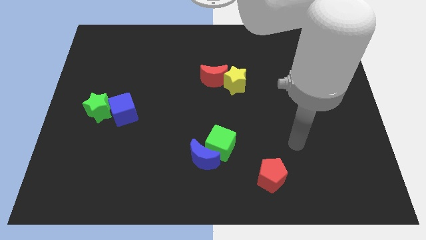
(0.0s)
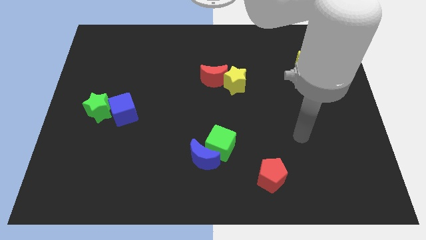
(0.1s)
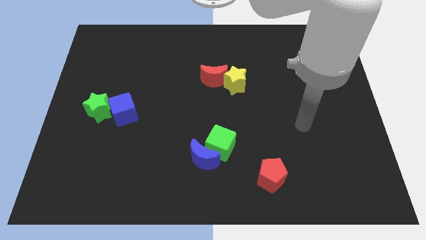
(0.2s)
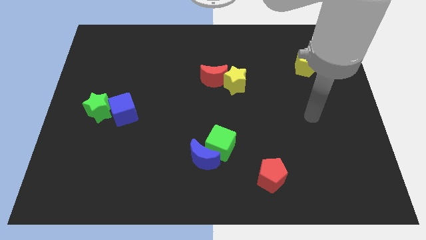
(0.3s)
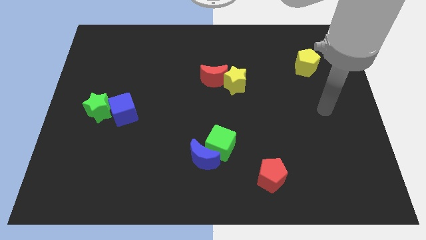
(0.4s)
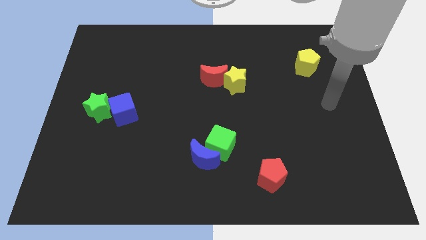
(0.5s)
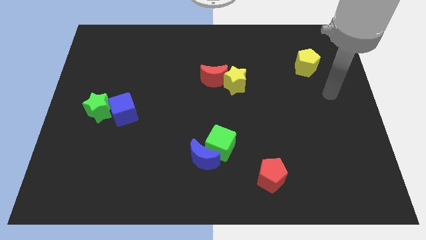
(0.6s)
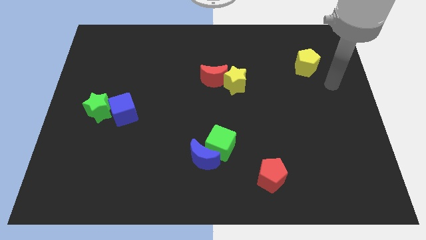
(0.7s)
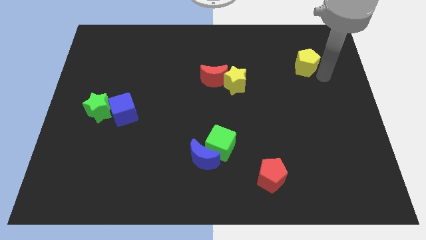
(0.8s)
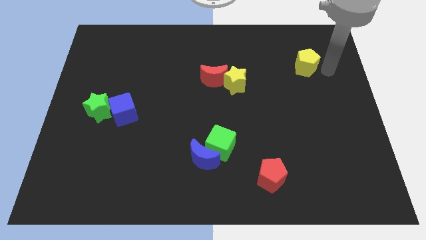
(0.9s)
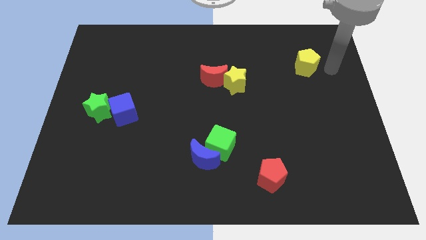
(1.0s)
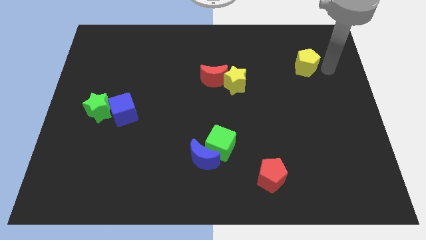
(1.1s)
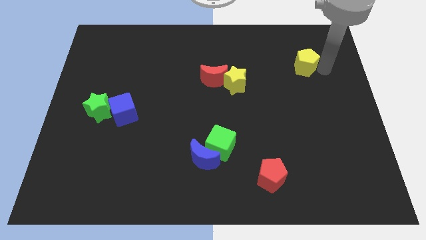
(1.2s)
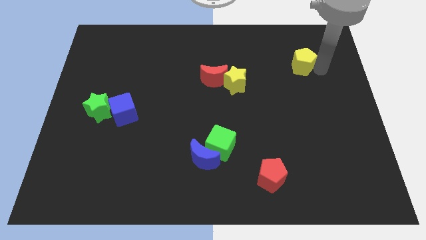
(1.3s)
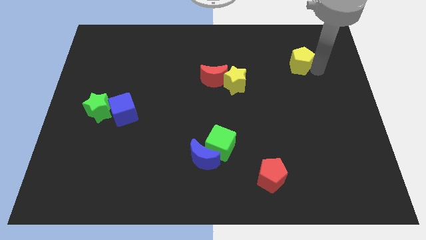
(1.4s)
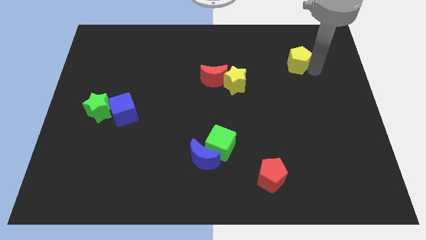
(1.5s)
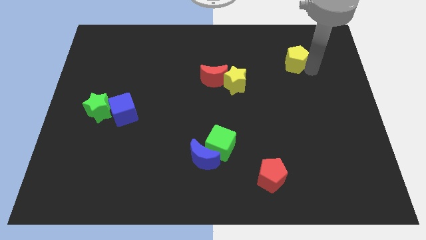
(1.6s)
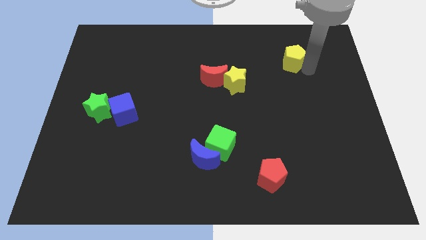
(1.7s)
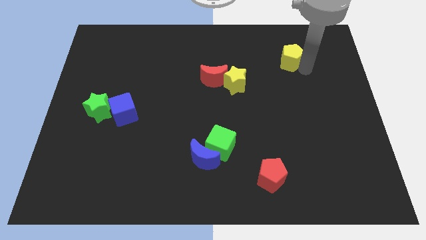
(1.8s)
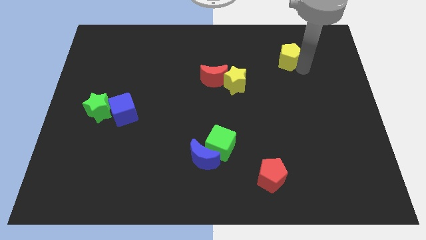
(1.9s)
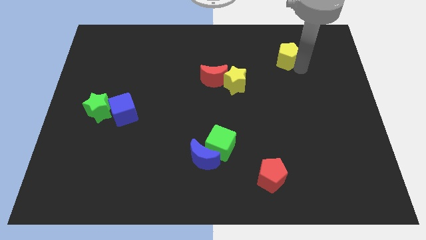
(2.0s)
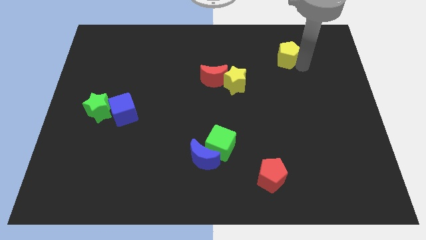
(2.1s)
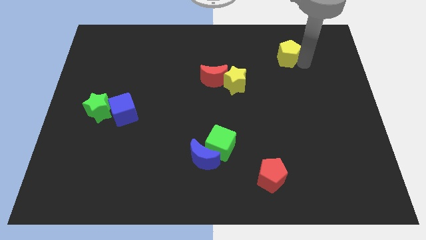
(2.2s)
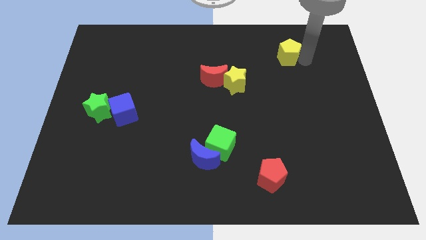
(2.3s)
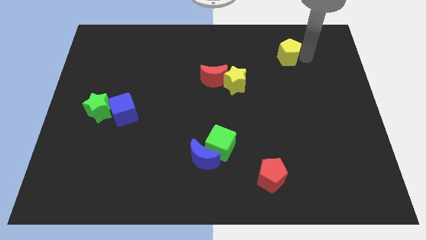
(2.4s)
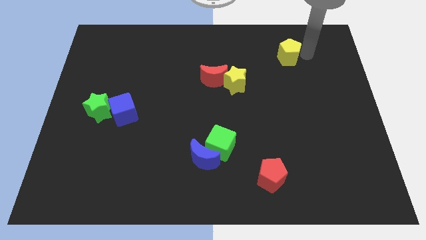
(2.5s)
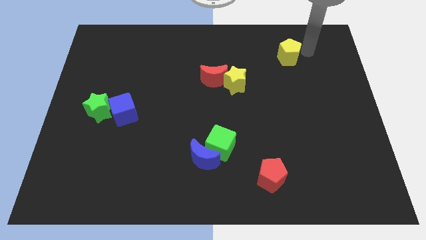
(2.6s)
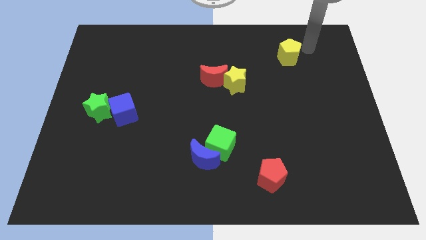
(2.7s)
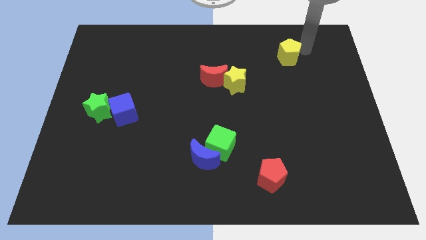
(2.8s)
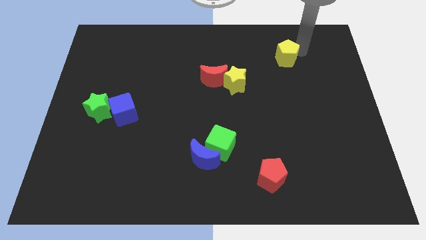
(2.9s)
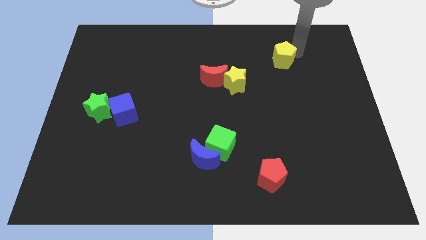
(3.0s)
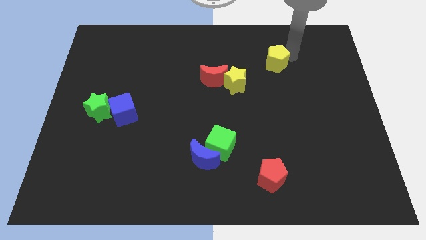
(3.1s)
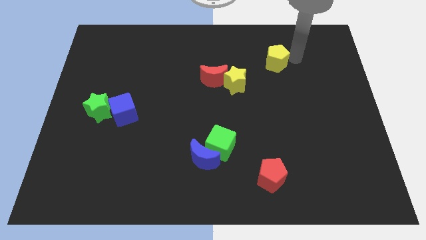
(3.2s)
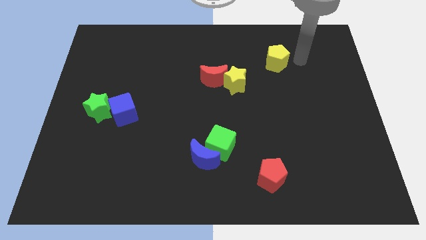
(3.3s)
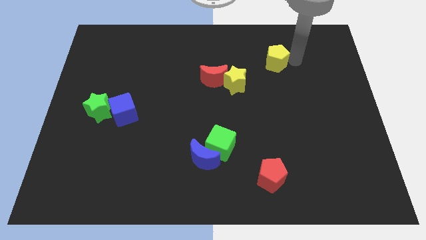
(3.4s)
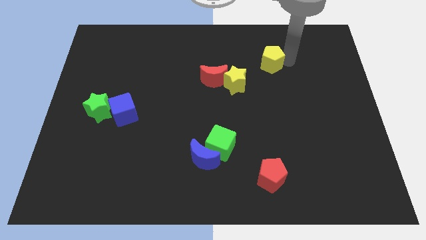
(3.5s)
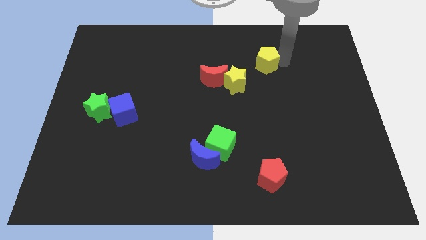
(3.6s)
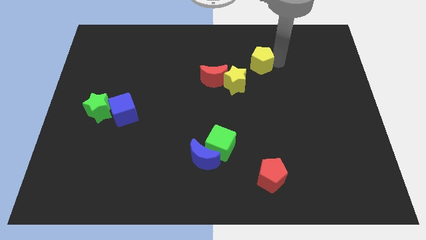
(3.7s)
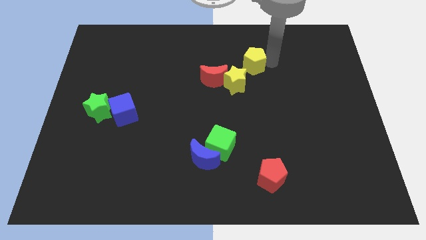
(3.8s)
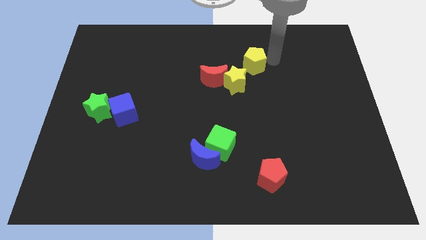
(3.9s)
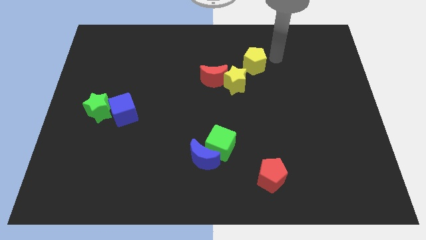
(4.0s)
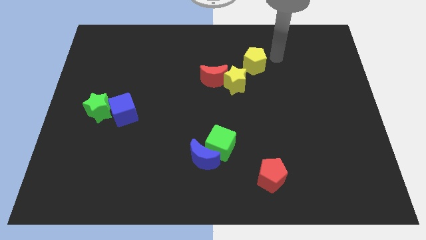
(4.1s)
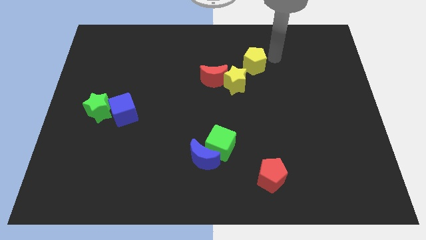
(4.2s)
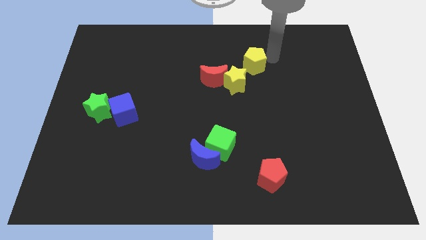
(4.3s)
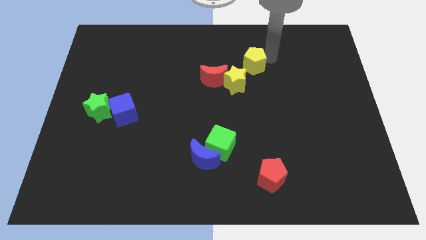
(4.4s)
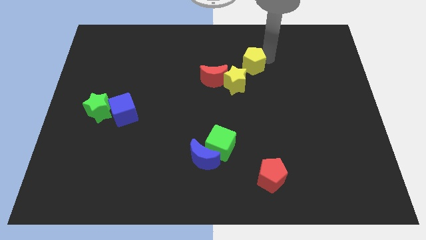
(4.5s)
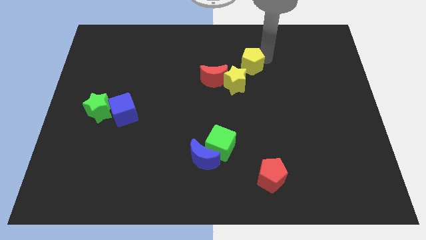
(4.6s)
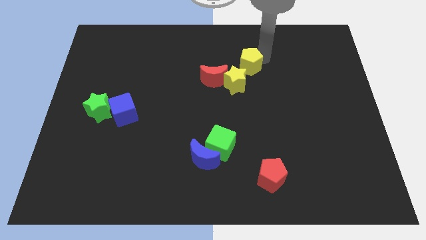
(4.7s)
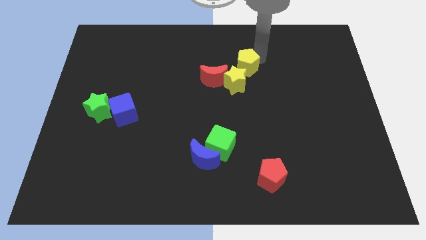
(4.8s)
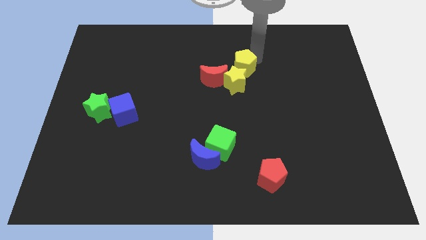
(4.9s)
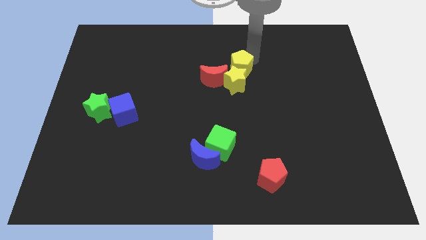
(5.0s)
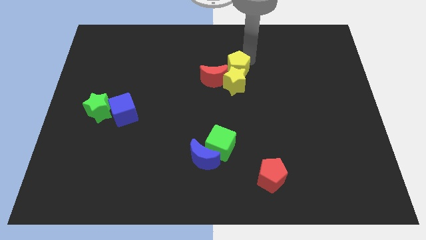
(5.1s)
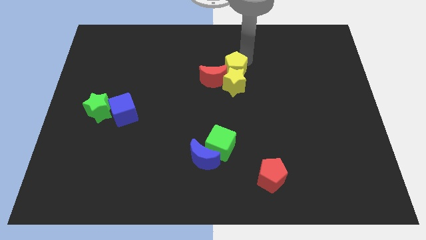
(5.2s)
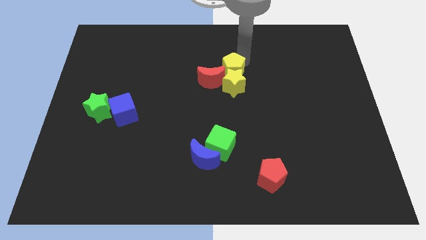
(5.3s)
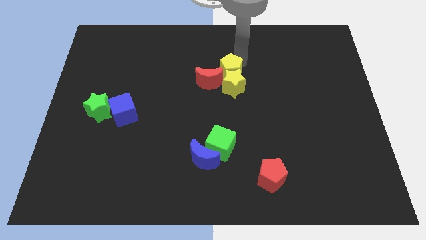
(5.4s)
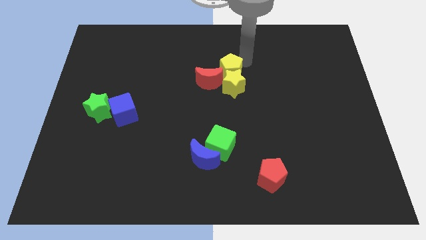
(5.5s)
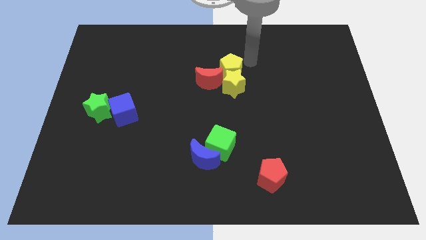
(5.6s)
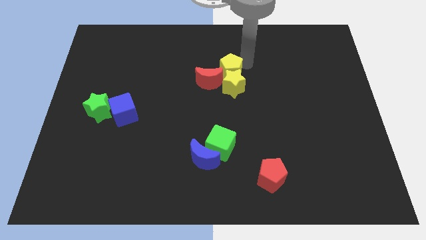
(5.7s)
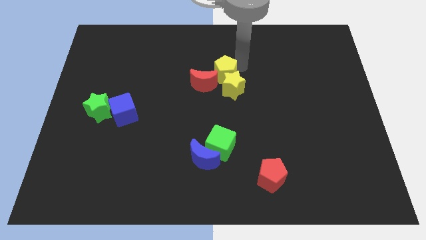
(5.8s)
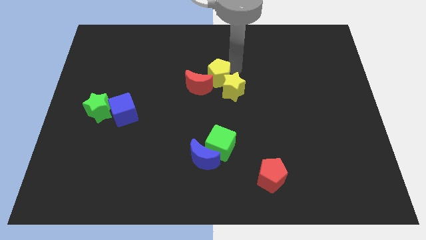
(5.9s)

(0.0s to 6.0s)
slide the yellow pentagon towards the red moon
